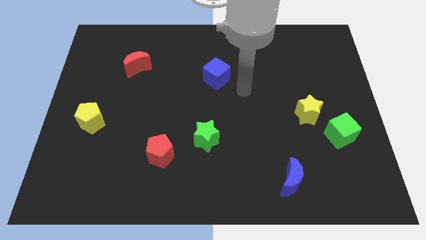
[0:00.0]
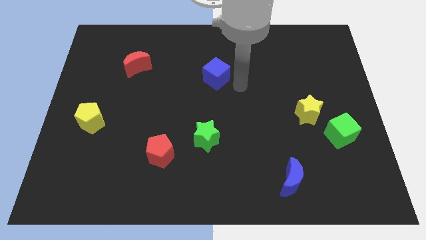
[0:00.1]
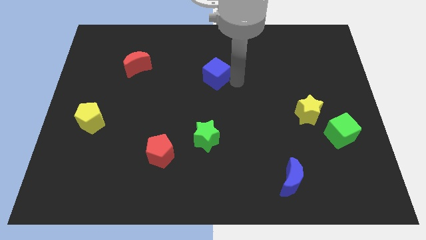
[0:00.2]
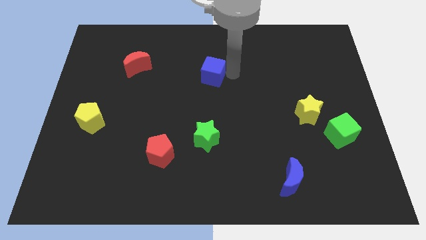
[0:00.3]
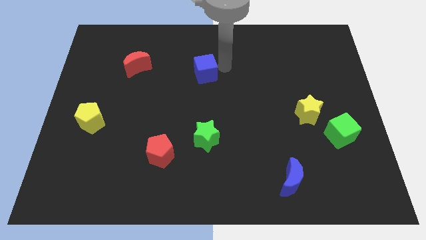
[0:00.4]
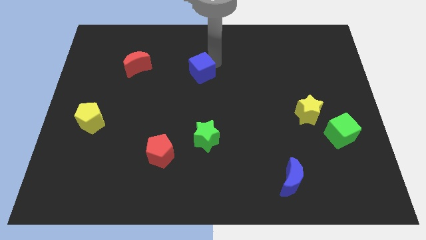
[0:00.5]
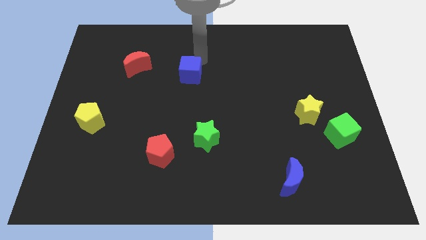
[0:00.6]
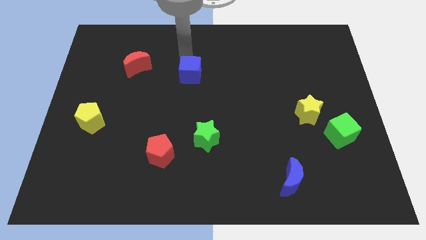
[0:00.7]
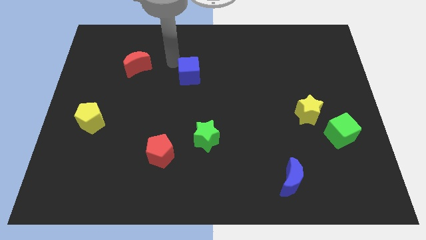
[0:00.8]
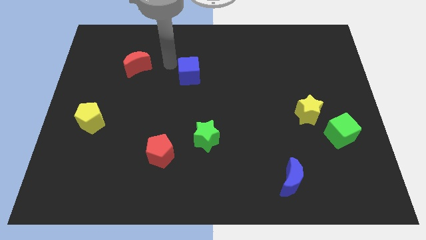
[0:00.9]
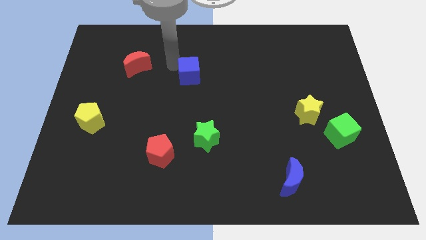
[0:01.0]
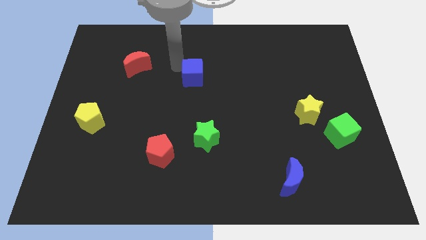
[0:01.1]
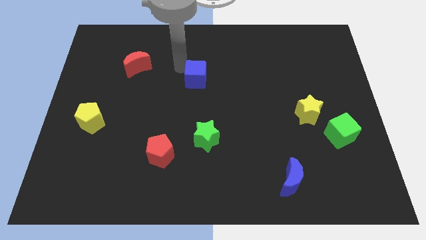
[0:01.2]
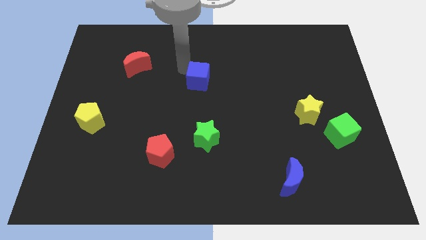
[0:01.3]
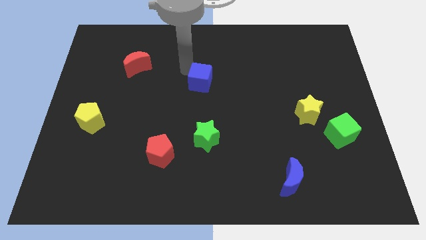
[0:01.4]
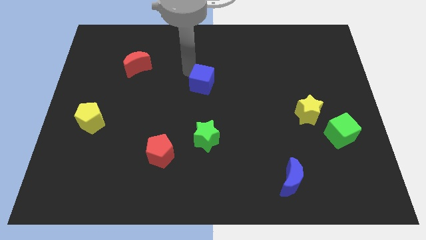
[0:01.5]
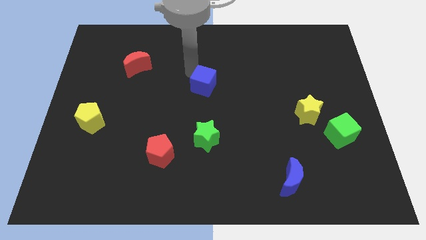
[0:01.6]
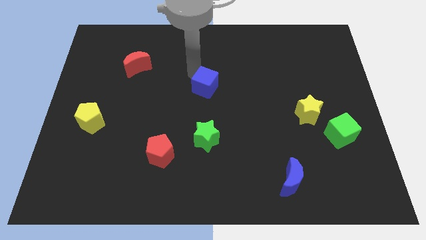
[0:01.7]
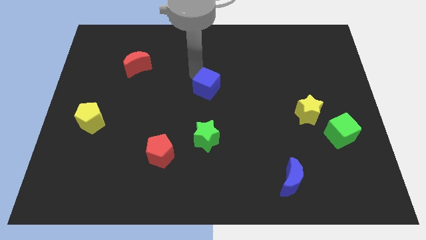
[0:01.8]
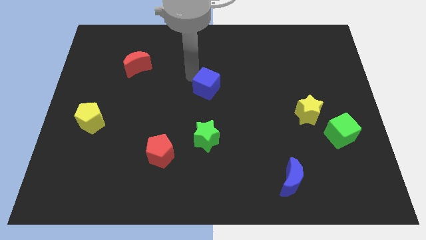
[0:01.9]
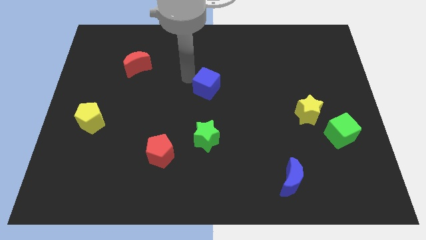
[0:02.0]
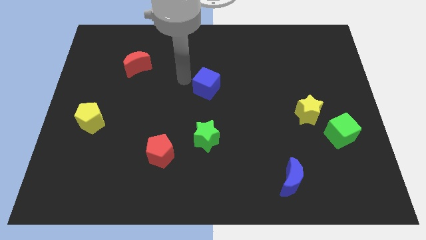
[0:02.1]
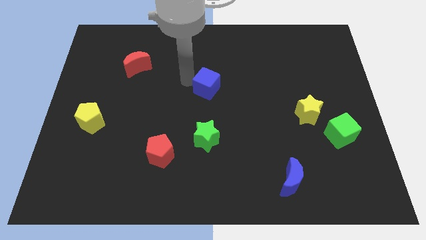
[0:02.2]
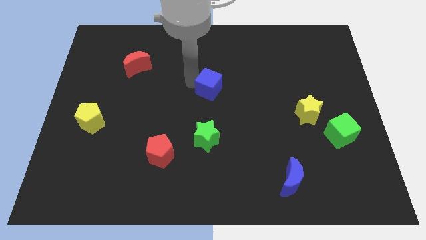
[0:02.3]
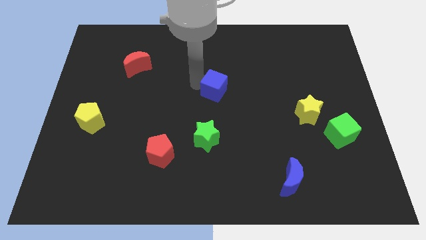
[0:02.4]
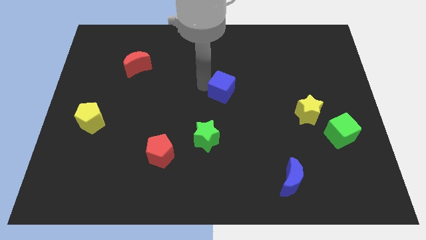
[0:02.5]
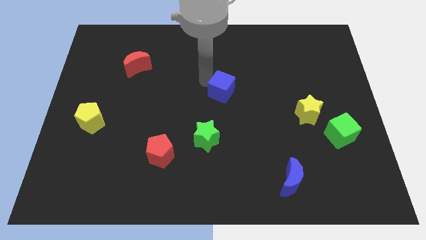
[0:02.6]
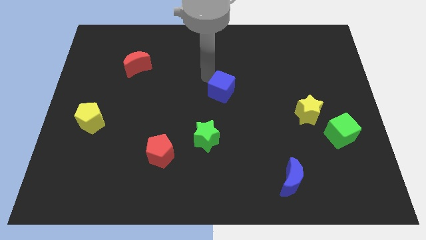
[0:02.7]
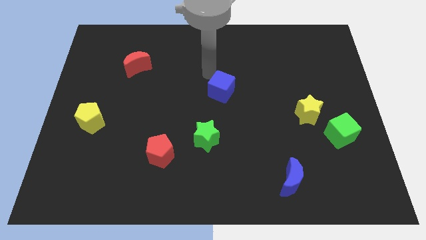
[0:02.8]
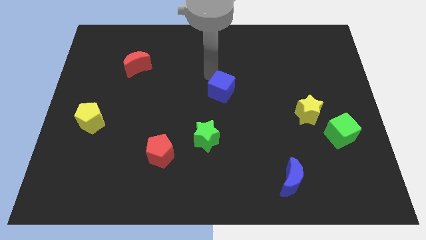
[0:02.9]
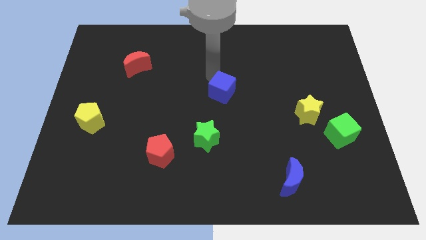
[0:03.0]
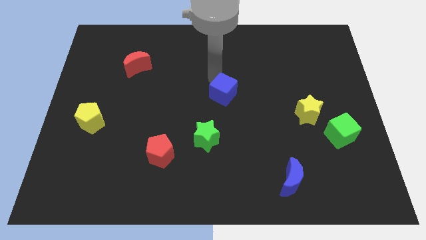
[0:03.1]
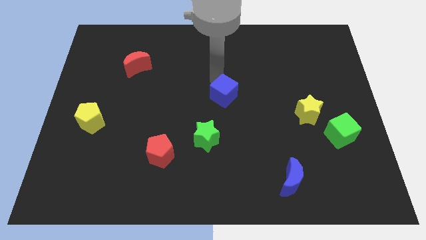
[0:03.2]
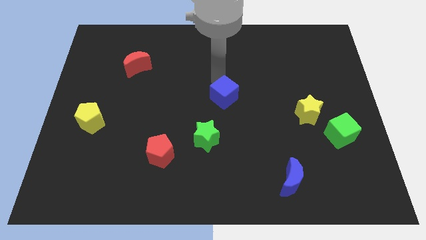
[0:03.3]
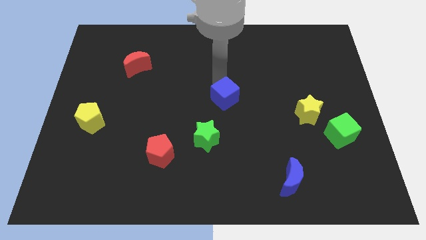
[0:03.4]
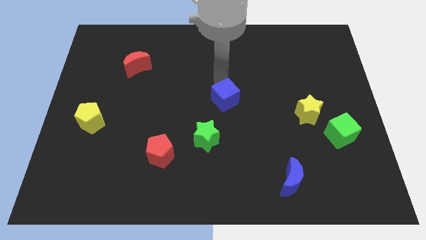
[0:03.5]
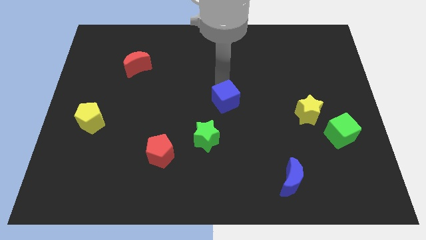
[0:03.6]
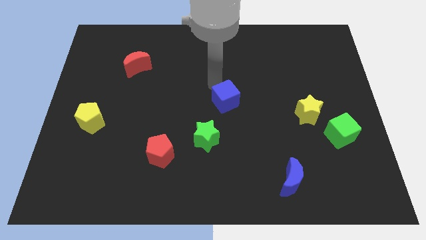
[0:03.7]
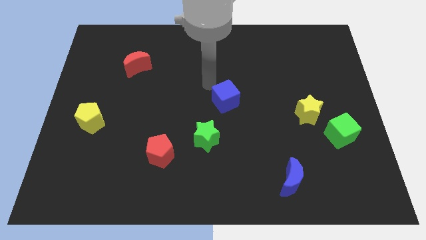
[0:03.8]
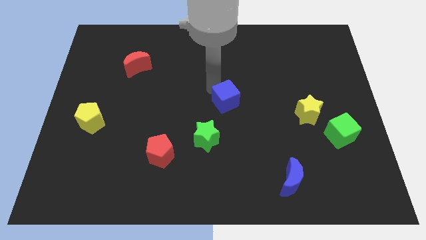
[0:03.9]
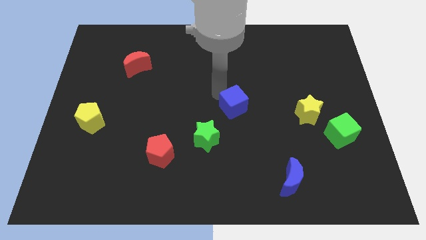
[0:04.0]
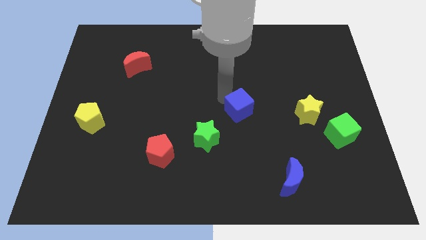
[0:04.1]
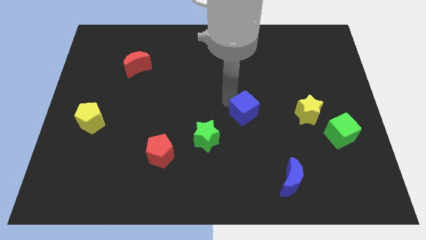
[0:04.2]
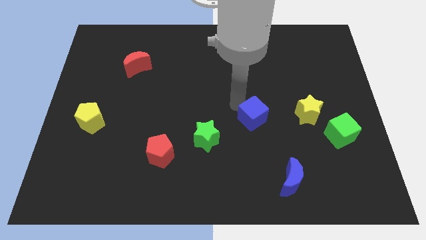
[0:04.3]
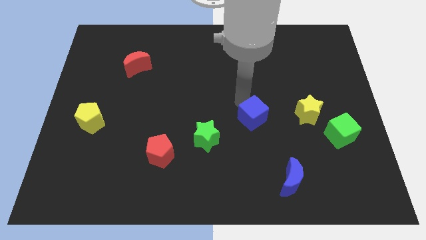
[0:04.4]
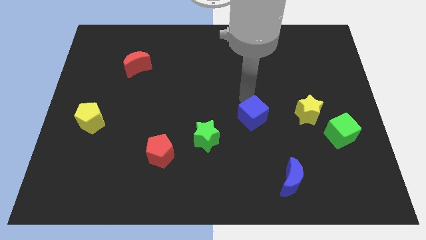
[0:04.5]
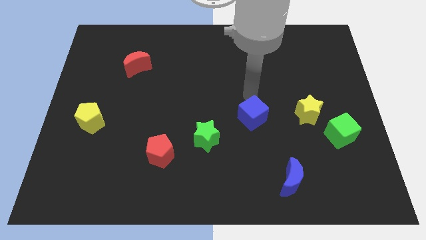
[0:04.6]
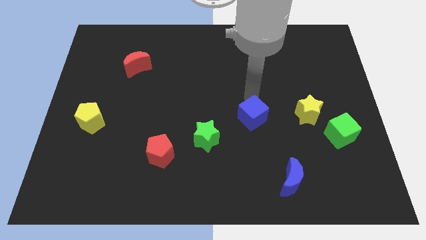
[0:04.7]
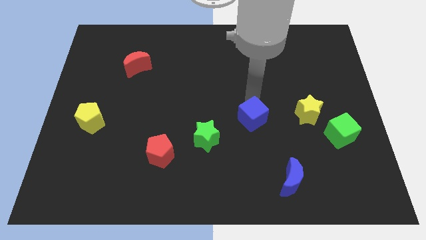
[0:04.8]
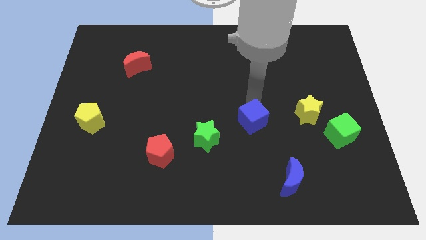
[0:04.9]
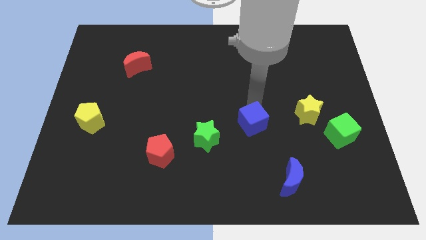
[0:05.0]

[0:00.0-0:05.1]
push the blue cube to the right of the green star

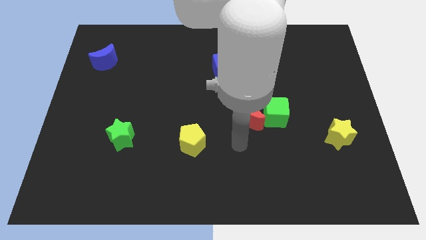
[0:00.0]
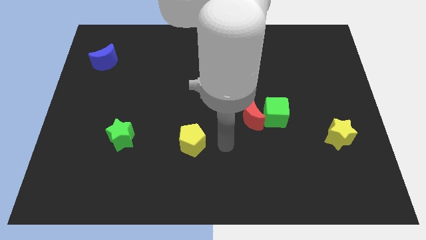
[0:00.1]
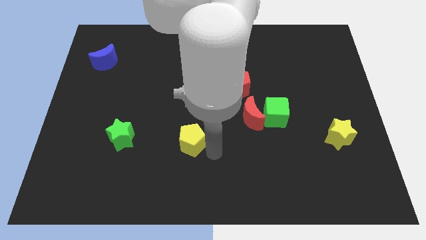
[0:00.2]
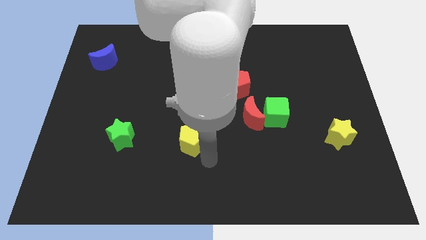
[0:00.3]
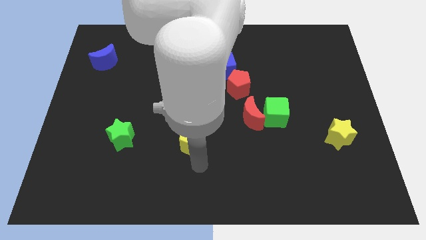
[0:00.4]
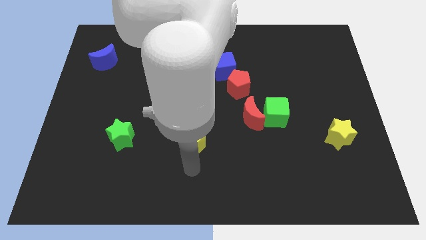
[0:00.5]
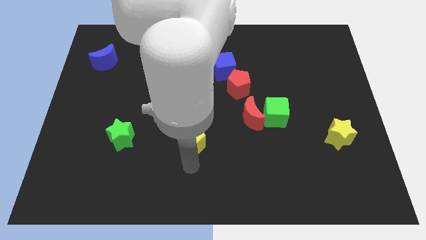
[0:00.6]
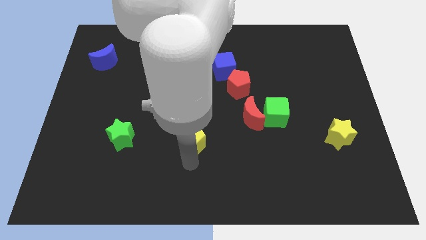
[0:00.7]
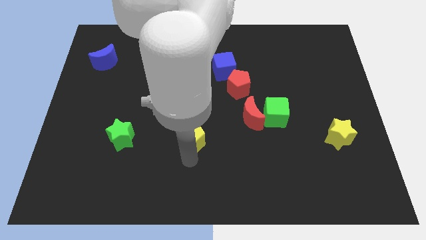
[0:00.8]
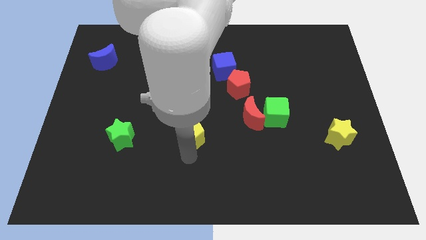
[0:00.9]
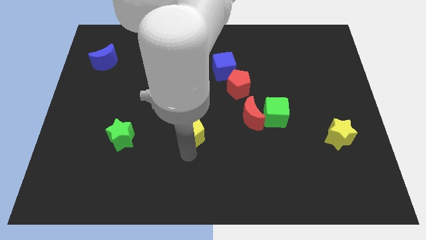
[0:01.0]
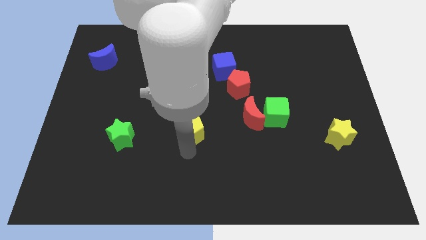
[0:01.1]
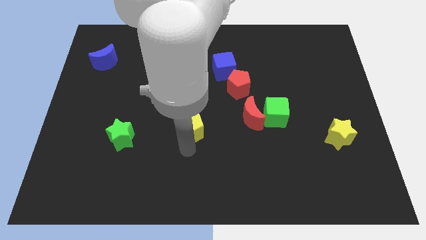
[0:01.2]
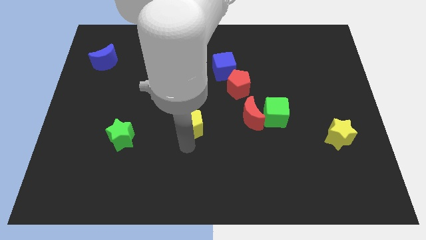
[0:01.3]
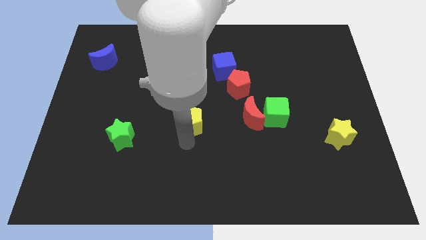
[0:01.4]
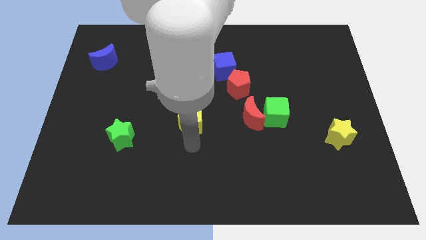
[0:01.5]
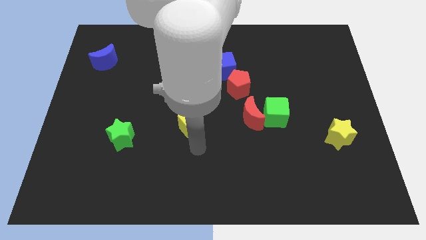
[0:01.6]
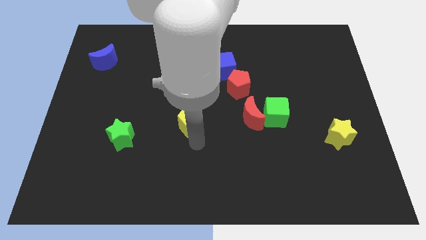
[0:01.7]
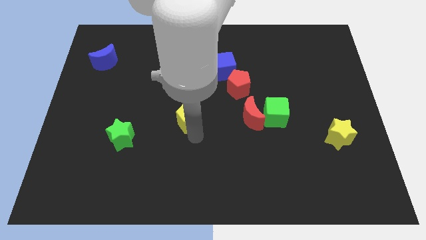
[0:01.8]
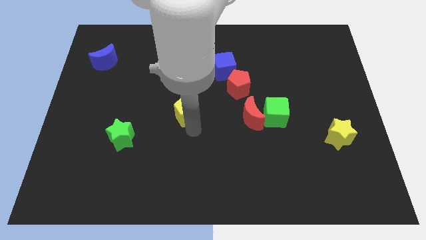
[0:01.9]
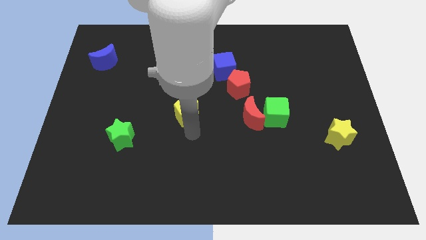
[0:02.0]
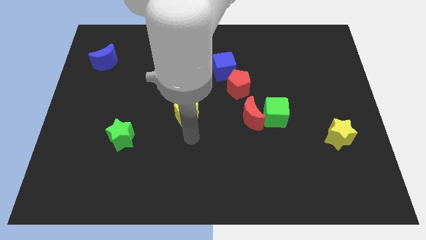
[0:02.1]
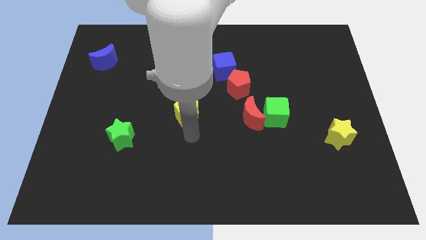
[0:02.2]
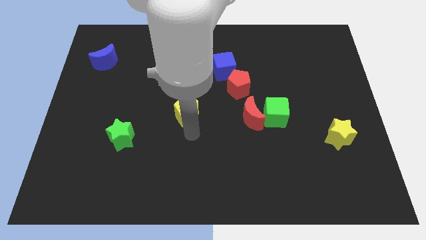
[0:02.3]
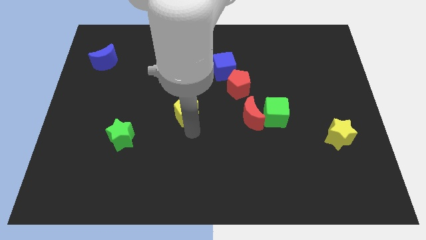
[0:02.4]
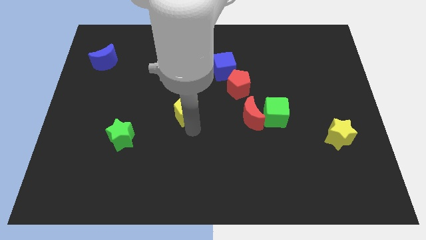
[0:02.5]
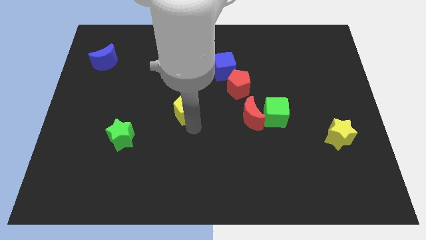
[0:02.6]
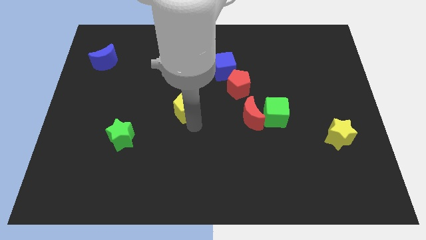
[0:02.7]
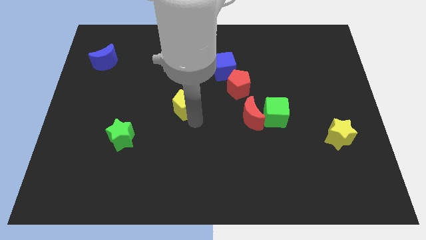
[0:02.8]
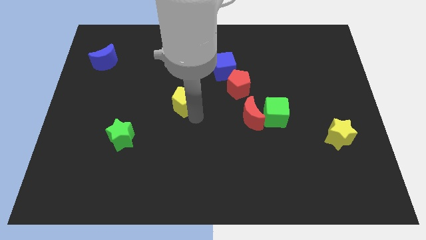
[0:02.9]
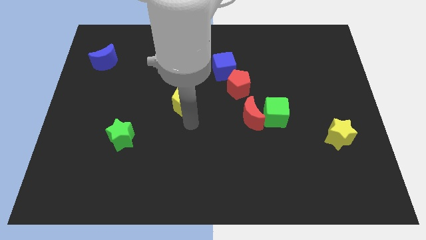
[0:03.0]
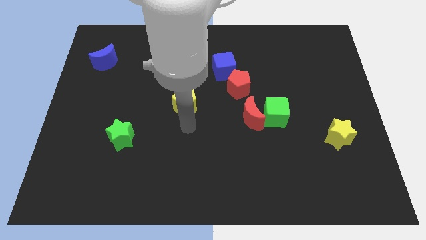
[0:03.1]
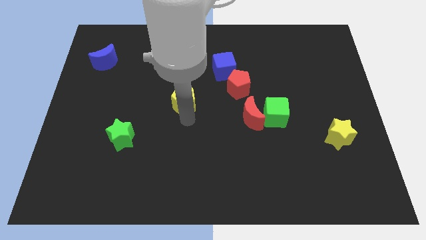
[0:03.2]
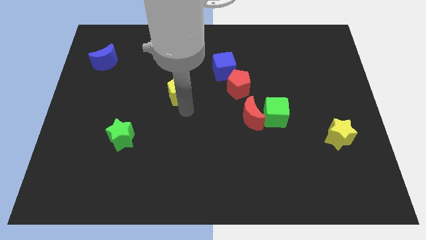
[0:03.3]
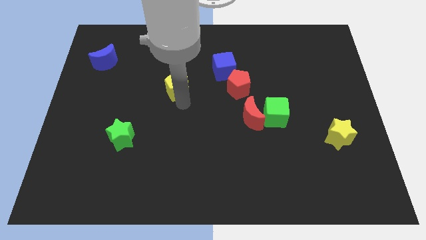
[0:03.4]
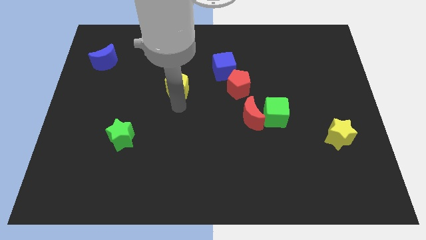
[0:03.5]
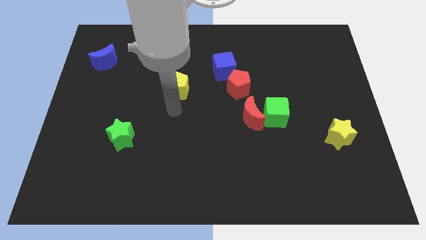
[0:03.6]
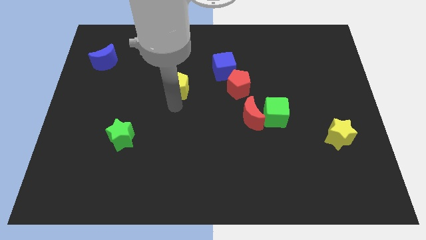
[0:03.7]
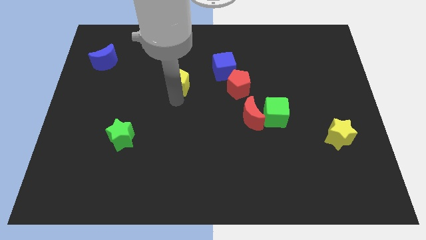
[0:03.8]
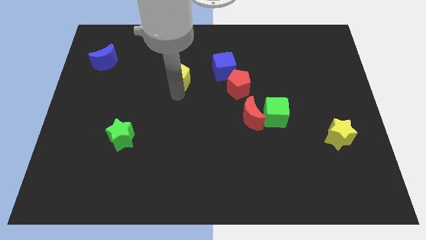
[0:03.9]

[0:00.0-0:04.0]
put the yellow pentagon left of the blue cube
